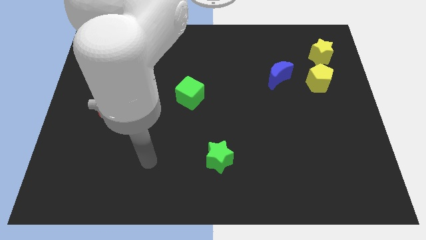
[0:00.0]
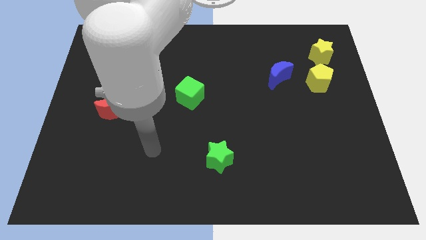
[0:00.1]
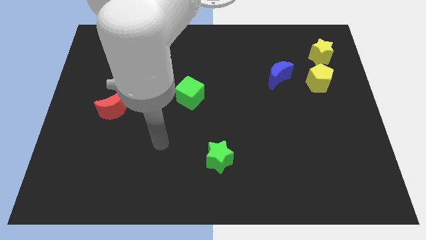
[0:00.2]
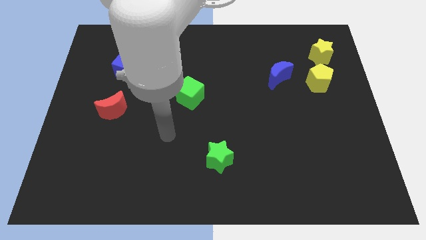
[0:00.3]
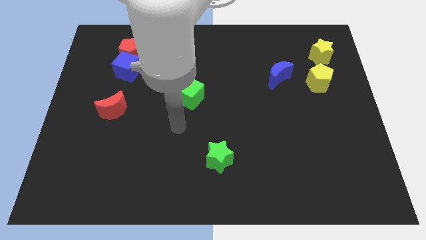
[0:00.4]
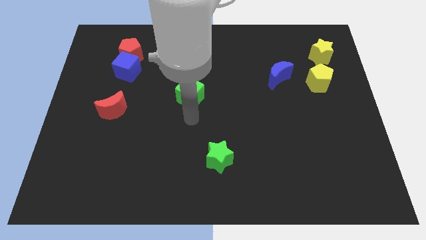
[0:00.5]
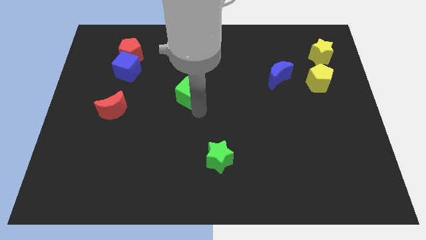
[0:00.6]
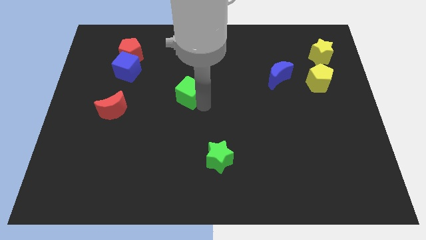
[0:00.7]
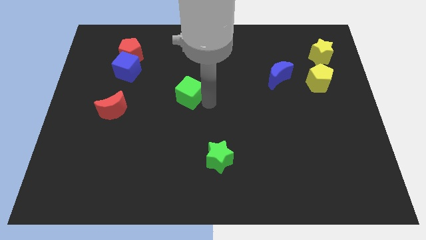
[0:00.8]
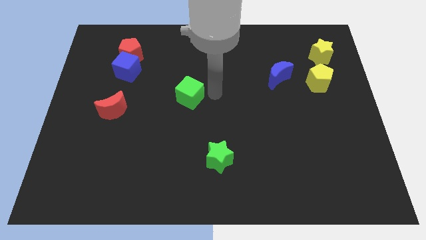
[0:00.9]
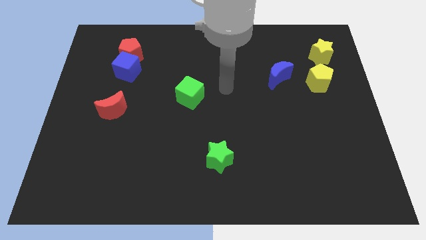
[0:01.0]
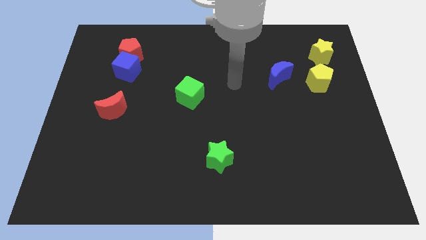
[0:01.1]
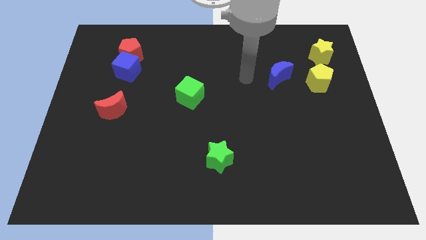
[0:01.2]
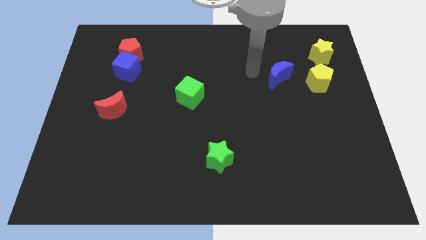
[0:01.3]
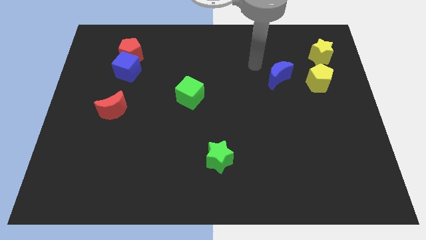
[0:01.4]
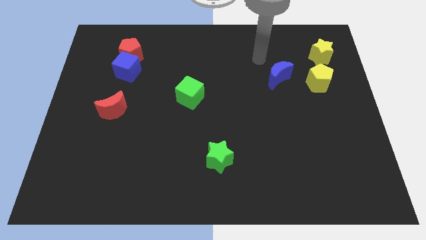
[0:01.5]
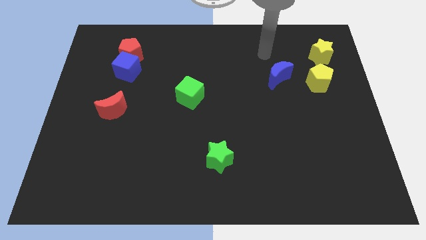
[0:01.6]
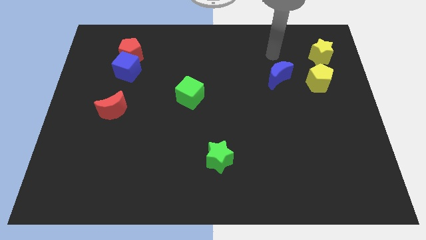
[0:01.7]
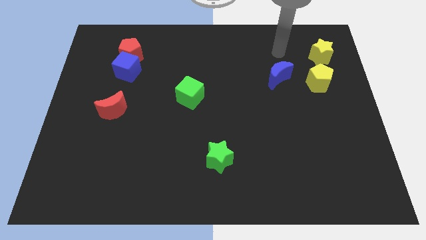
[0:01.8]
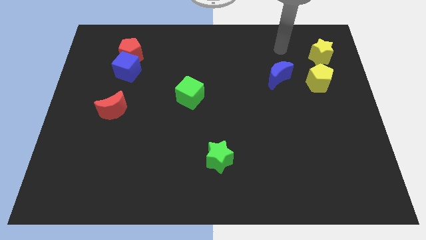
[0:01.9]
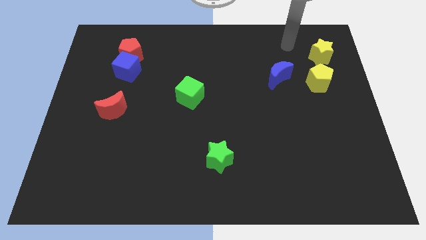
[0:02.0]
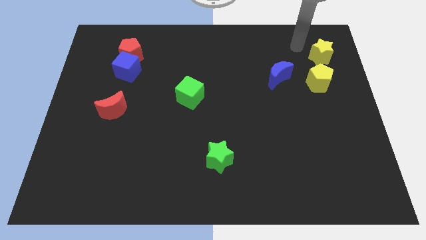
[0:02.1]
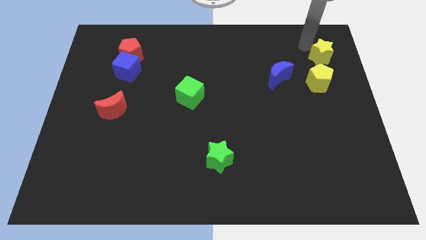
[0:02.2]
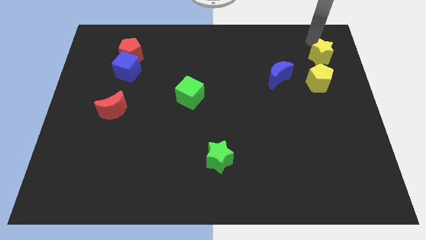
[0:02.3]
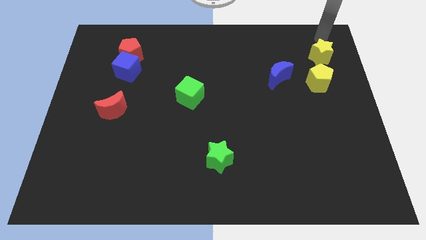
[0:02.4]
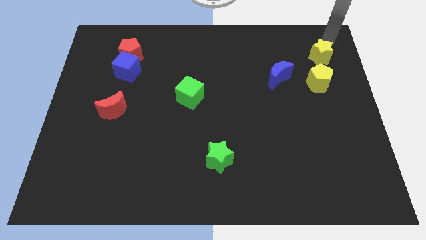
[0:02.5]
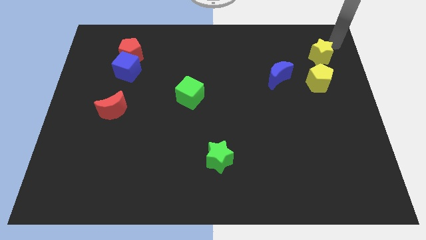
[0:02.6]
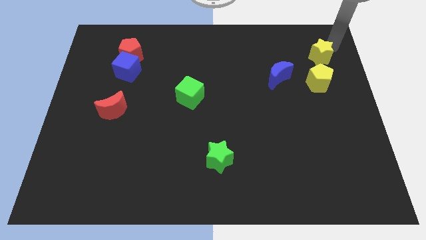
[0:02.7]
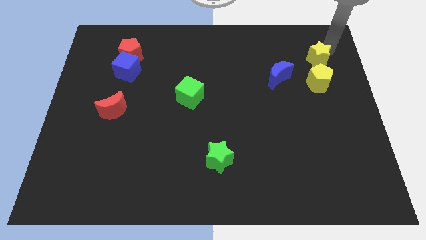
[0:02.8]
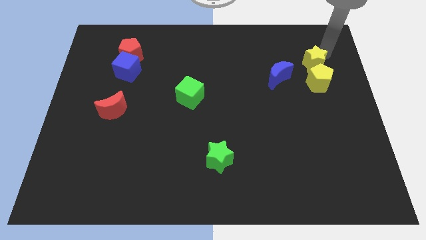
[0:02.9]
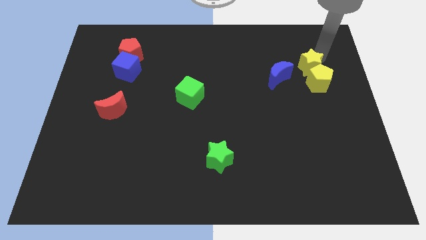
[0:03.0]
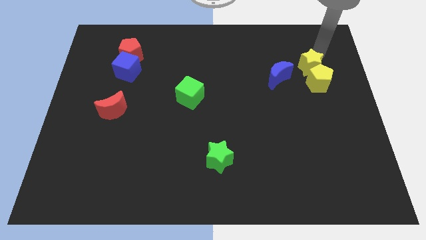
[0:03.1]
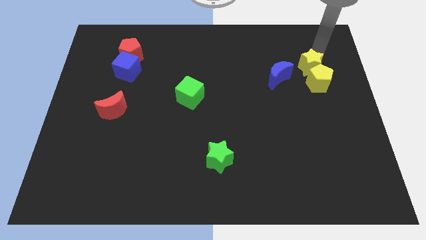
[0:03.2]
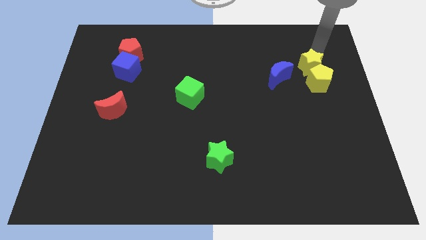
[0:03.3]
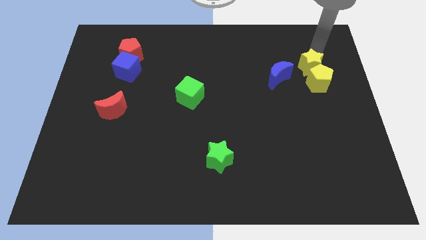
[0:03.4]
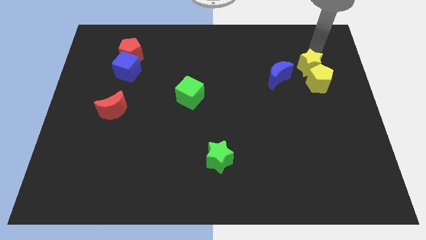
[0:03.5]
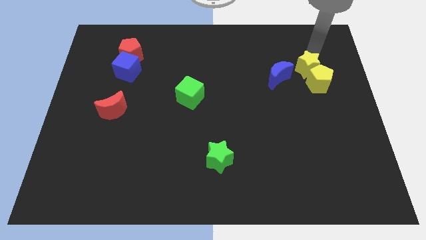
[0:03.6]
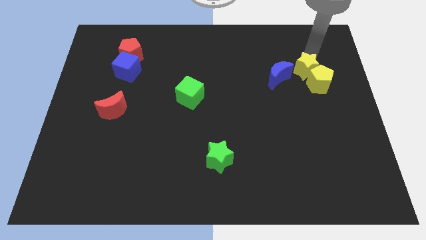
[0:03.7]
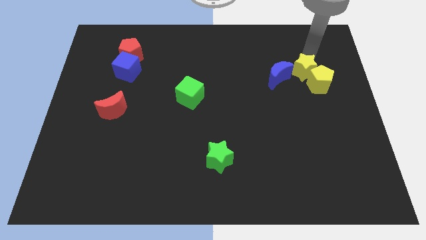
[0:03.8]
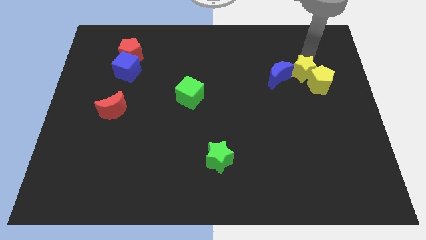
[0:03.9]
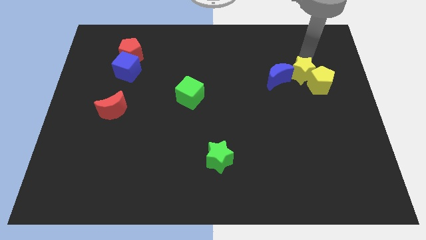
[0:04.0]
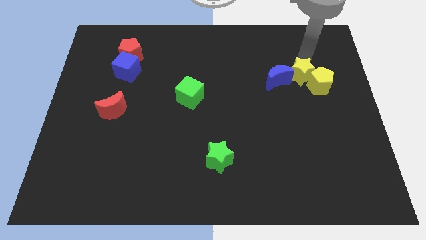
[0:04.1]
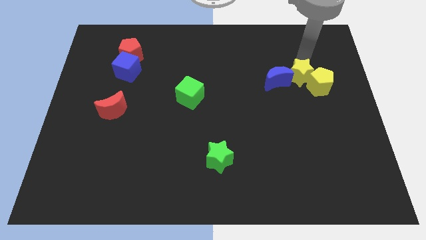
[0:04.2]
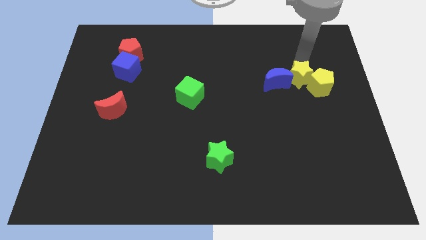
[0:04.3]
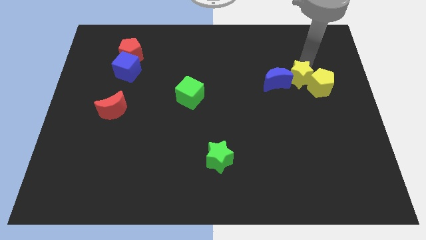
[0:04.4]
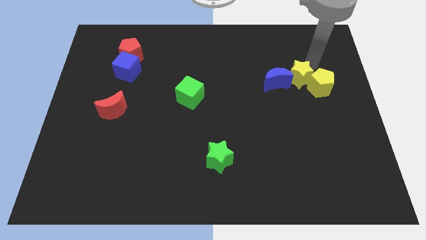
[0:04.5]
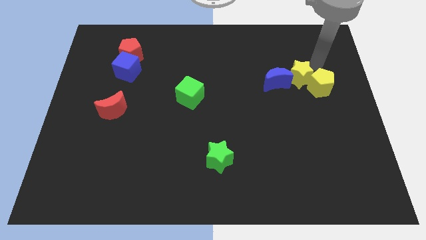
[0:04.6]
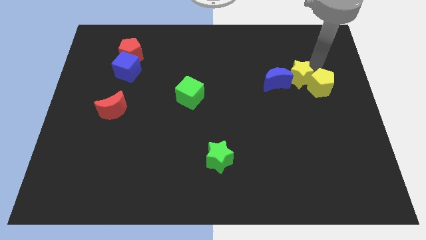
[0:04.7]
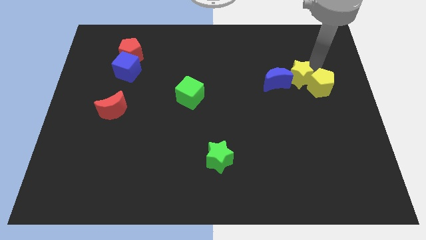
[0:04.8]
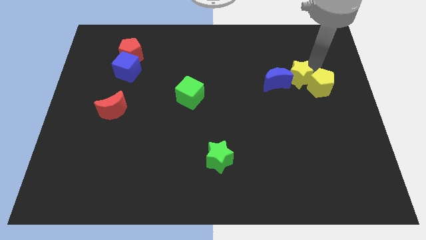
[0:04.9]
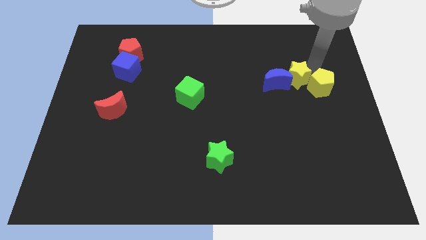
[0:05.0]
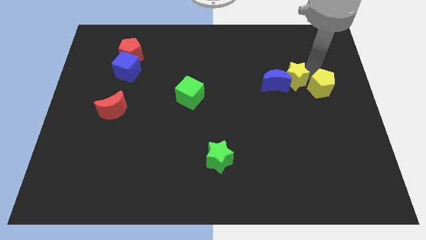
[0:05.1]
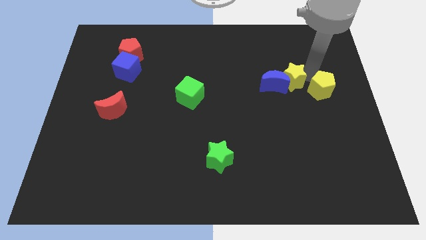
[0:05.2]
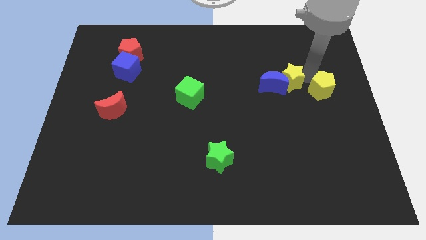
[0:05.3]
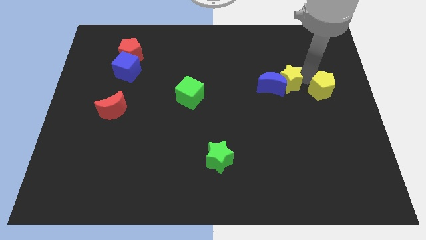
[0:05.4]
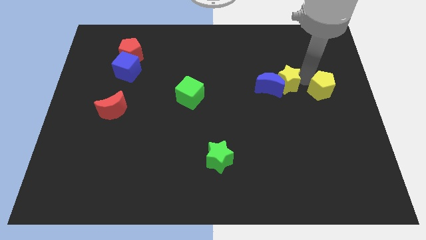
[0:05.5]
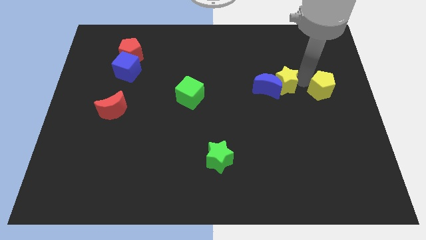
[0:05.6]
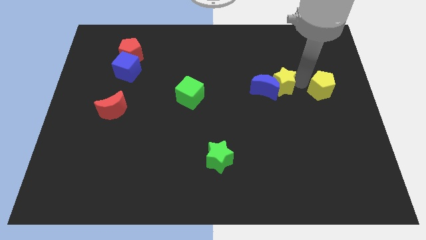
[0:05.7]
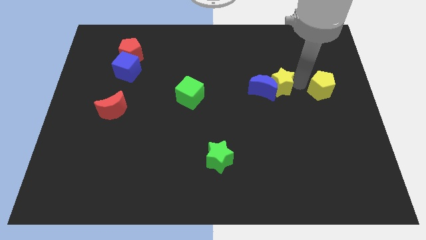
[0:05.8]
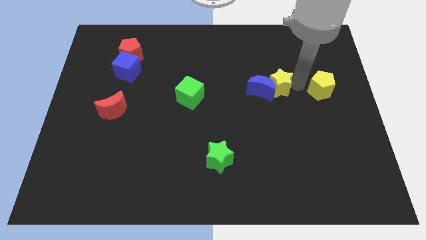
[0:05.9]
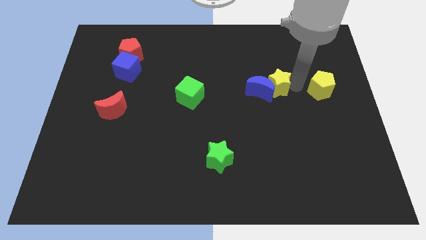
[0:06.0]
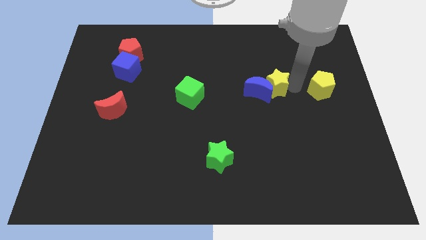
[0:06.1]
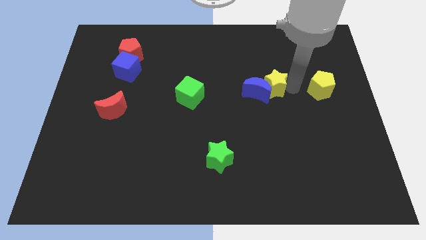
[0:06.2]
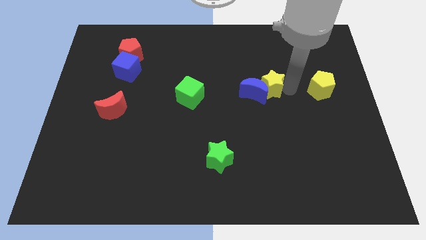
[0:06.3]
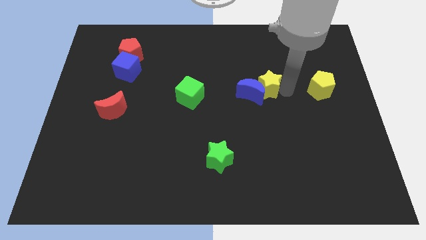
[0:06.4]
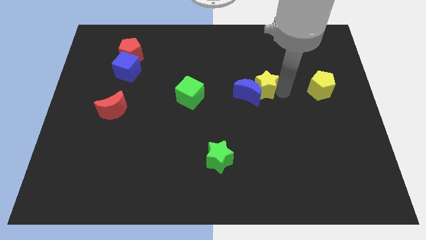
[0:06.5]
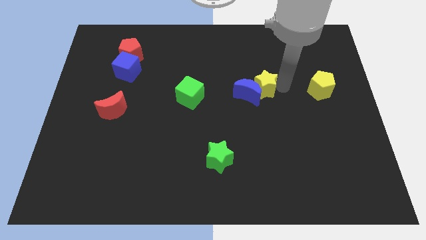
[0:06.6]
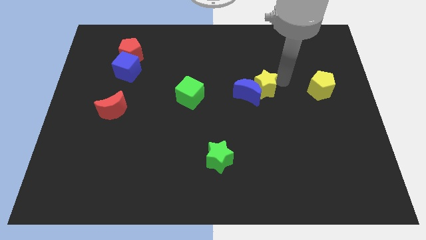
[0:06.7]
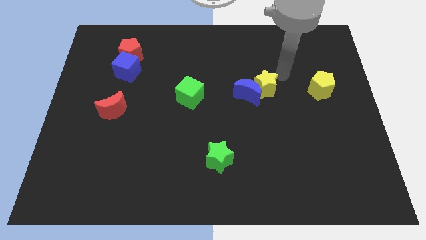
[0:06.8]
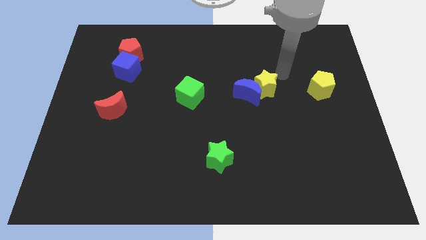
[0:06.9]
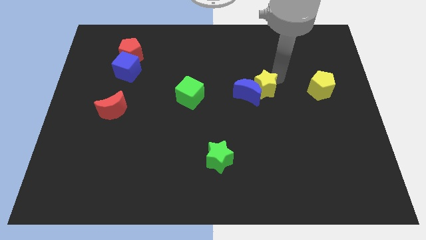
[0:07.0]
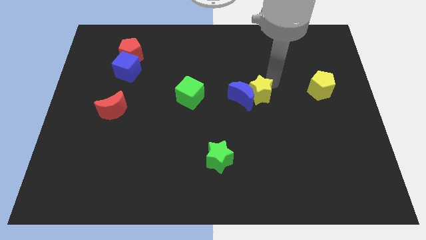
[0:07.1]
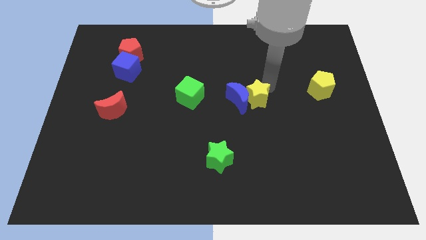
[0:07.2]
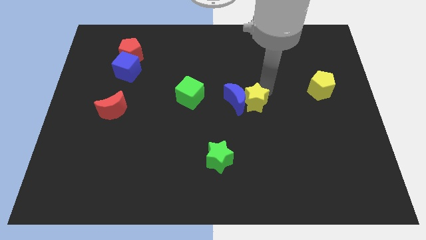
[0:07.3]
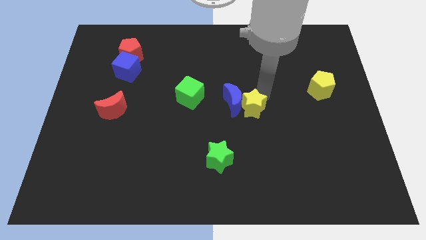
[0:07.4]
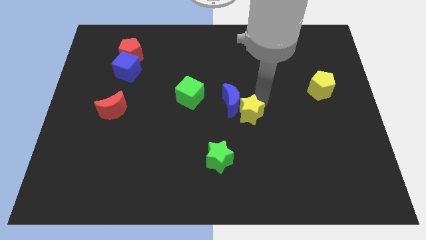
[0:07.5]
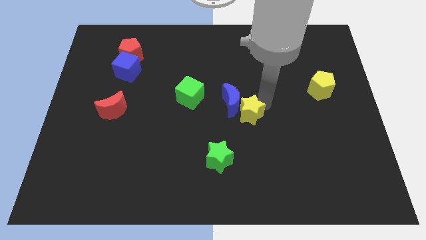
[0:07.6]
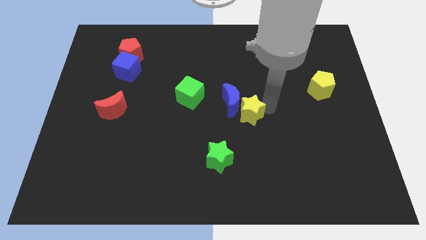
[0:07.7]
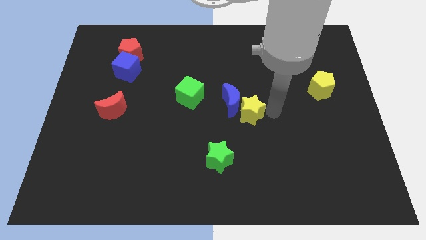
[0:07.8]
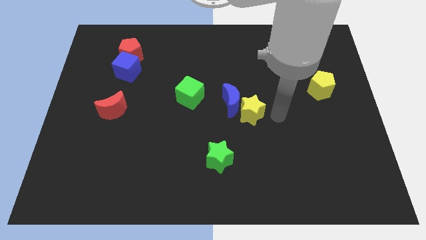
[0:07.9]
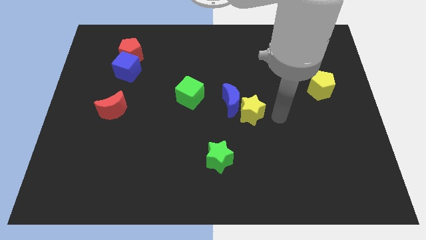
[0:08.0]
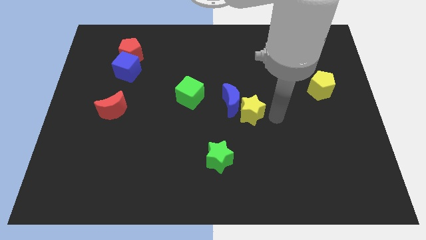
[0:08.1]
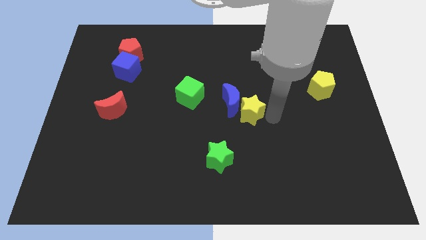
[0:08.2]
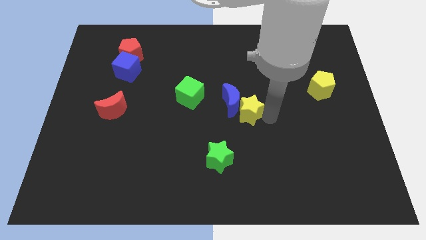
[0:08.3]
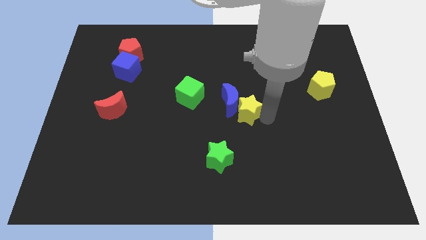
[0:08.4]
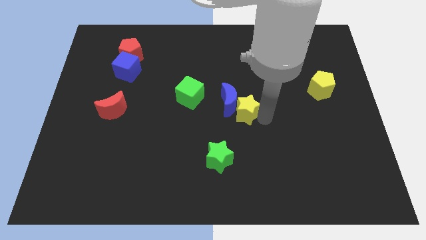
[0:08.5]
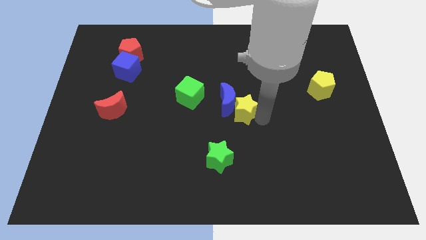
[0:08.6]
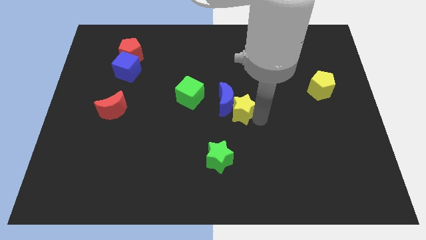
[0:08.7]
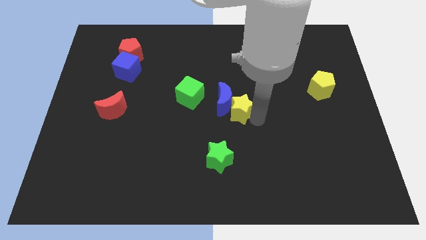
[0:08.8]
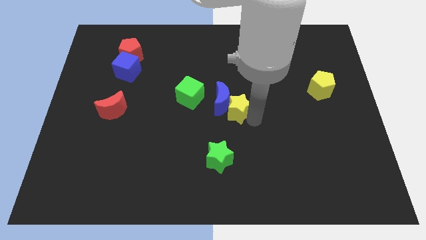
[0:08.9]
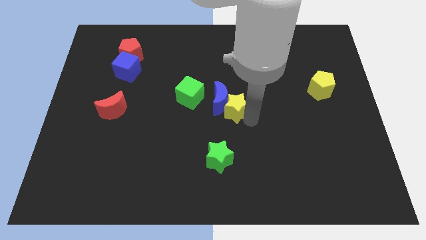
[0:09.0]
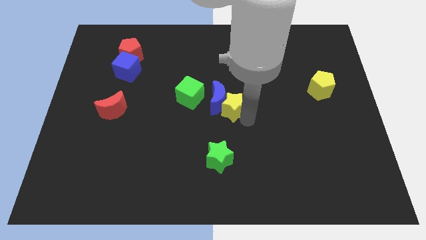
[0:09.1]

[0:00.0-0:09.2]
push the yellow star to the bottom right of the green cube
